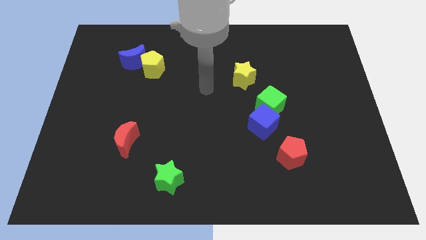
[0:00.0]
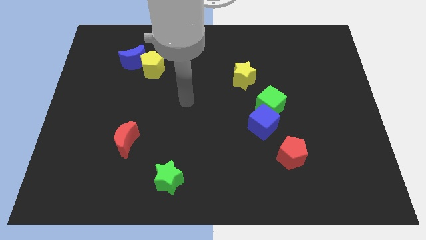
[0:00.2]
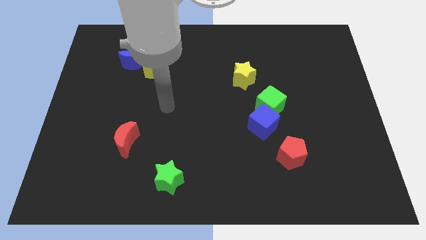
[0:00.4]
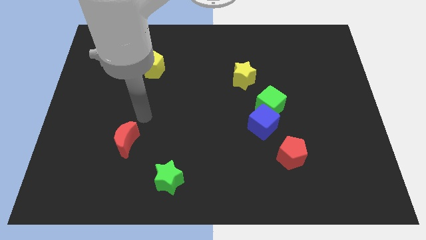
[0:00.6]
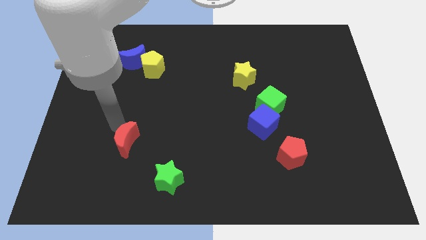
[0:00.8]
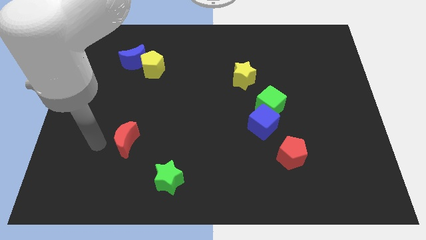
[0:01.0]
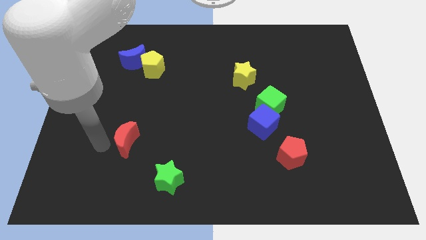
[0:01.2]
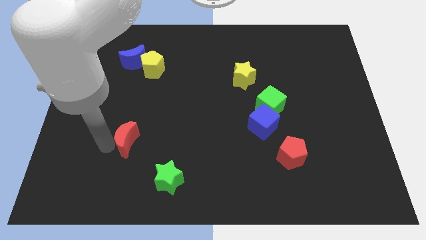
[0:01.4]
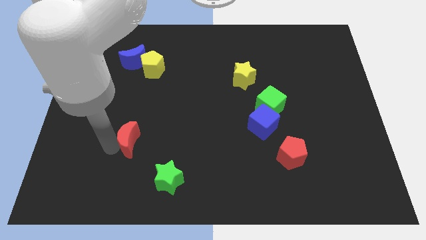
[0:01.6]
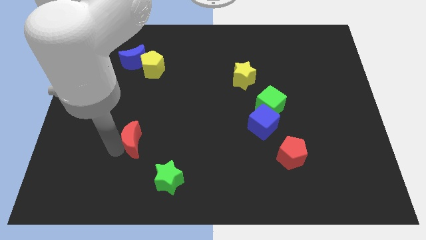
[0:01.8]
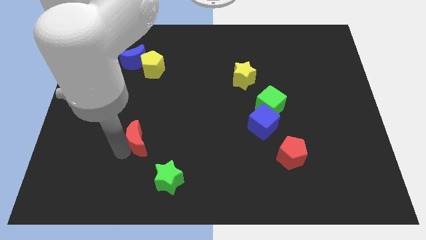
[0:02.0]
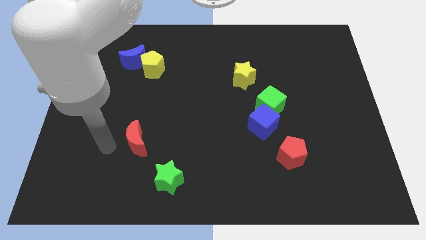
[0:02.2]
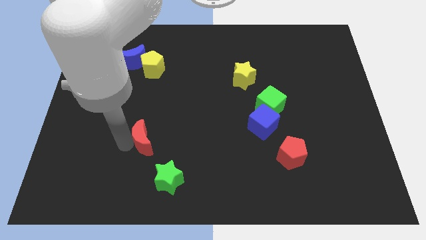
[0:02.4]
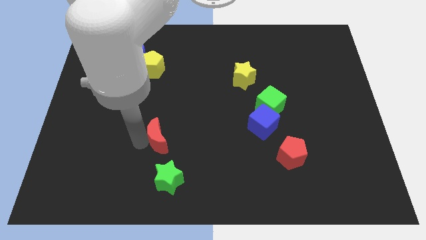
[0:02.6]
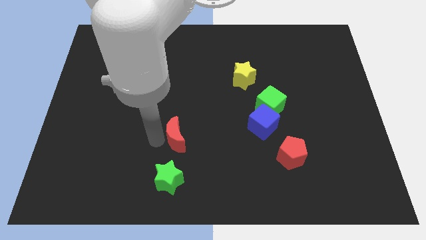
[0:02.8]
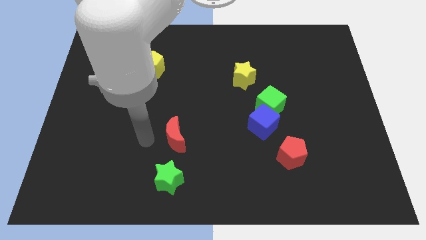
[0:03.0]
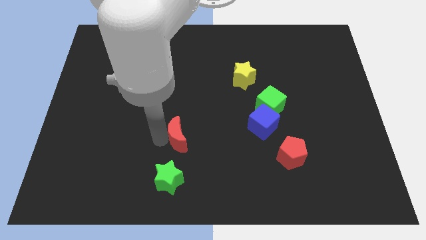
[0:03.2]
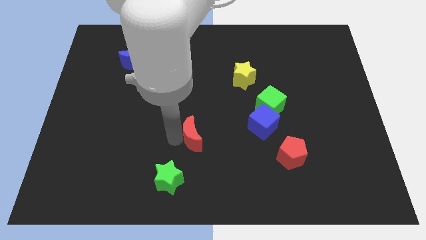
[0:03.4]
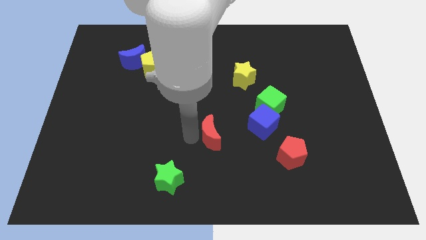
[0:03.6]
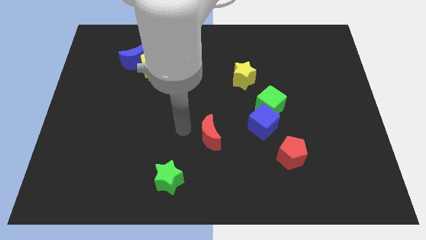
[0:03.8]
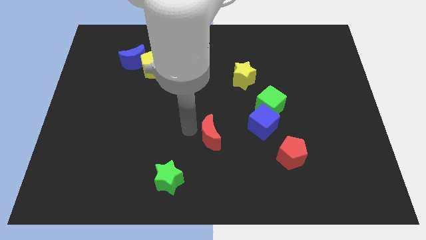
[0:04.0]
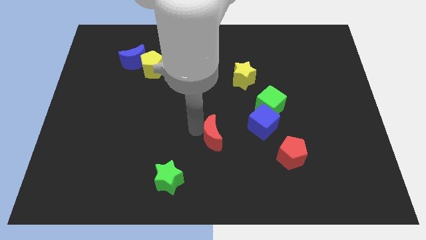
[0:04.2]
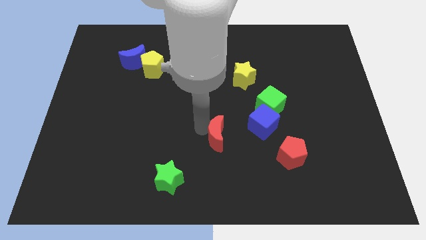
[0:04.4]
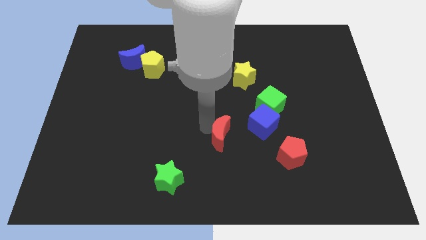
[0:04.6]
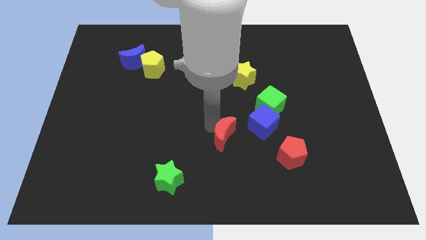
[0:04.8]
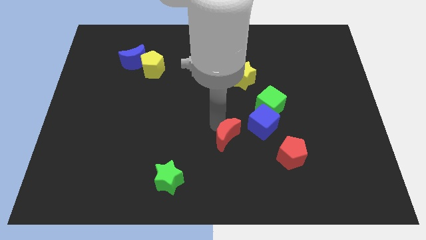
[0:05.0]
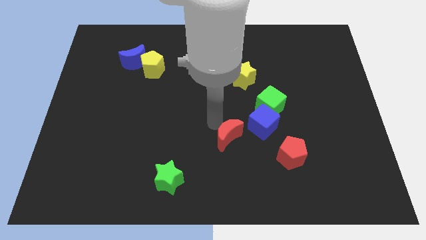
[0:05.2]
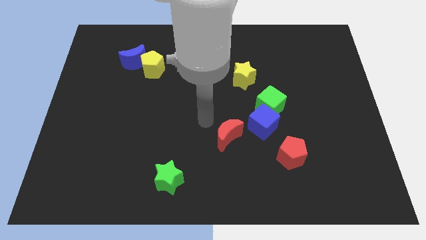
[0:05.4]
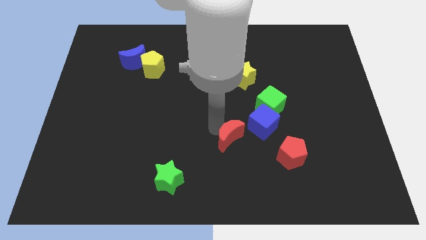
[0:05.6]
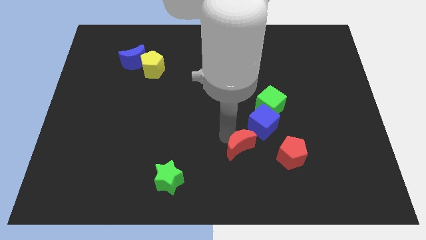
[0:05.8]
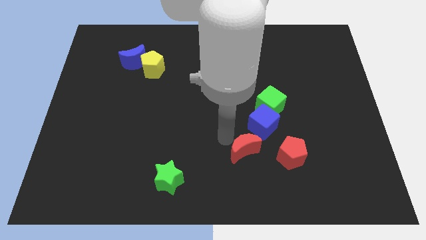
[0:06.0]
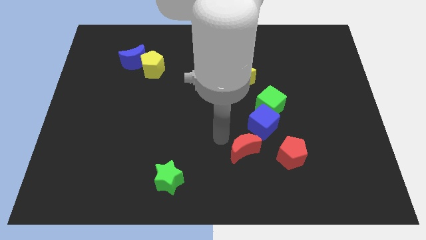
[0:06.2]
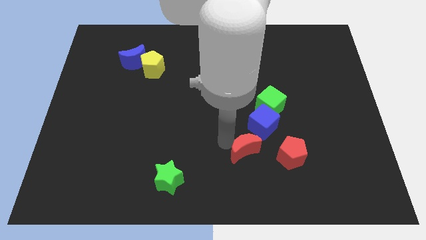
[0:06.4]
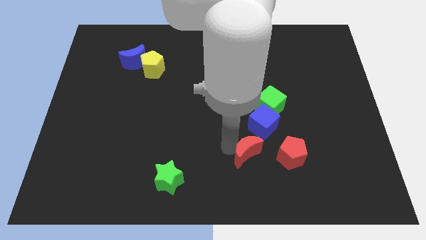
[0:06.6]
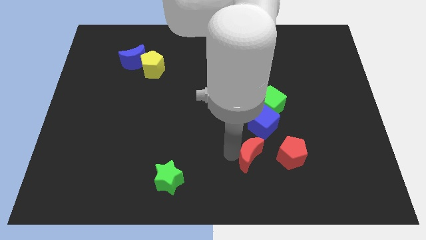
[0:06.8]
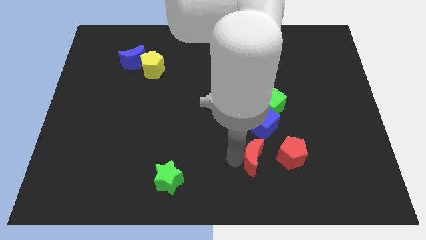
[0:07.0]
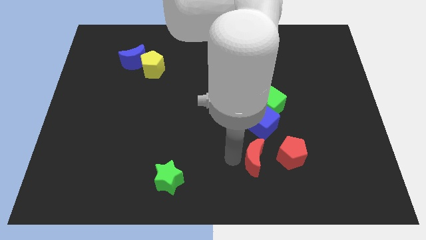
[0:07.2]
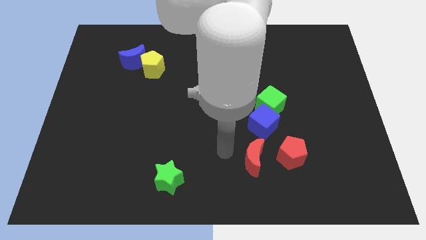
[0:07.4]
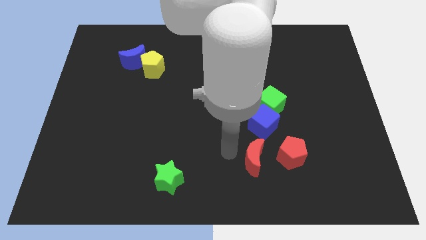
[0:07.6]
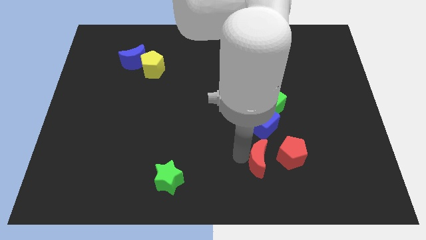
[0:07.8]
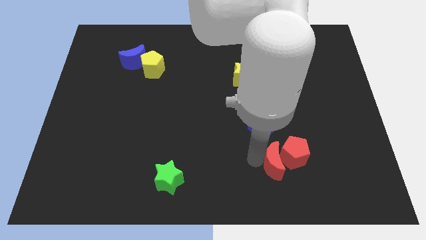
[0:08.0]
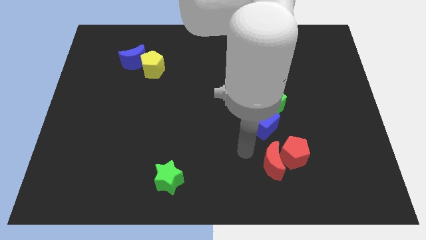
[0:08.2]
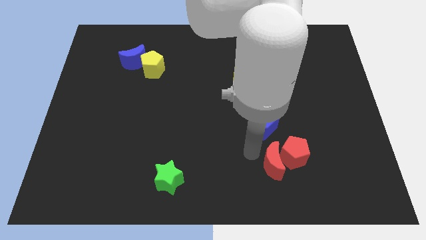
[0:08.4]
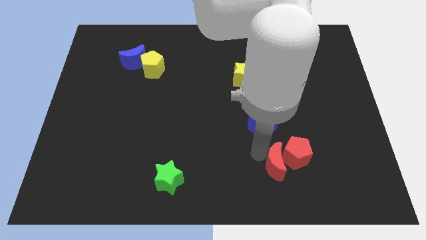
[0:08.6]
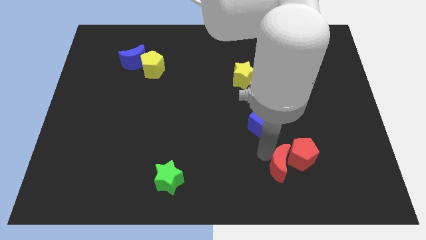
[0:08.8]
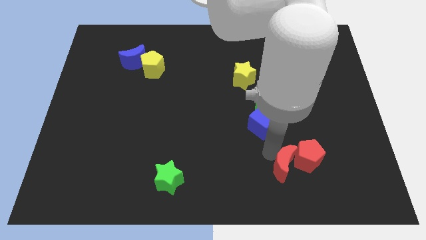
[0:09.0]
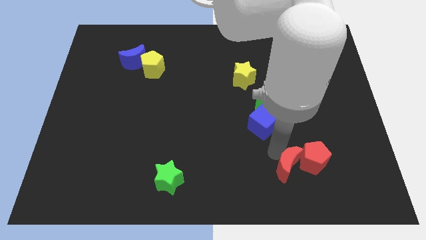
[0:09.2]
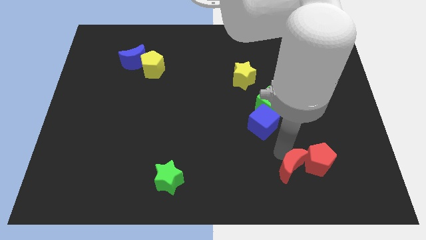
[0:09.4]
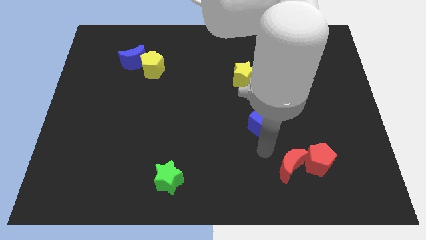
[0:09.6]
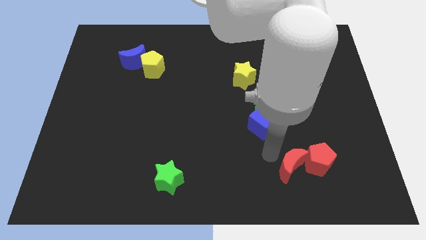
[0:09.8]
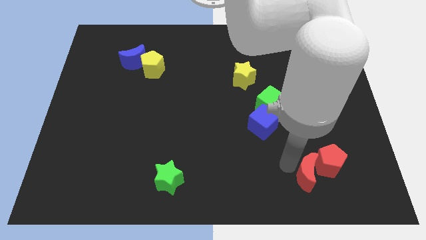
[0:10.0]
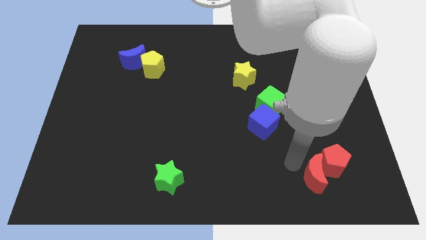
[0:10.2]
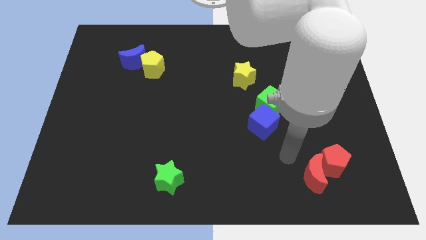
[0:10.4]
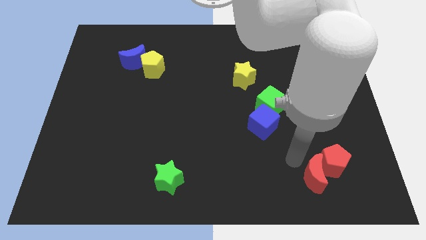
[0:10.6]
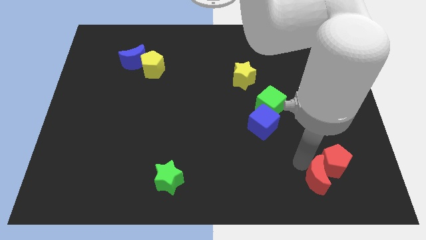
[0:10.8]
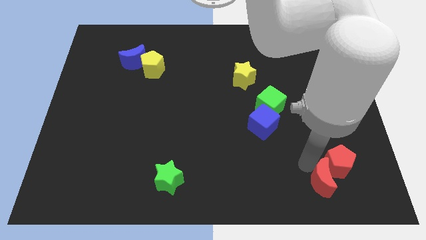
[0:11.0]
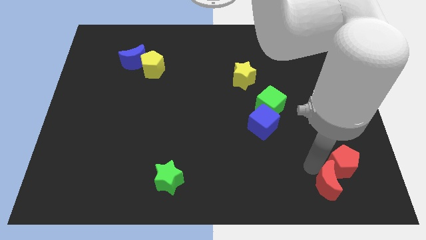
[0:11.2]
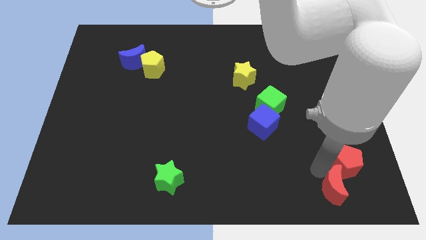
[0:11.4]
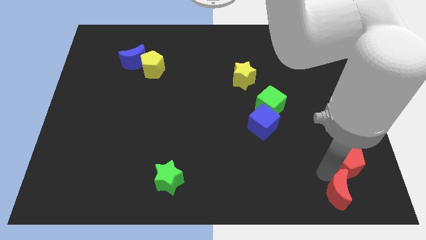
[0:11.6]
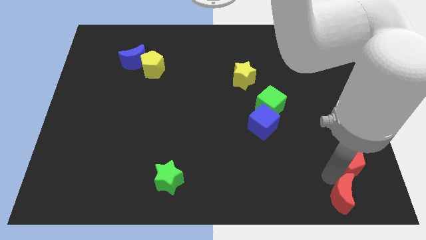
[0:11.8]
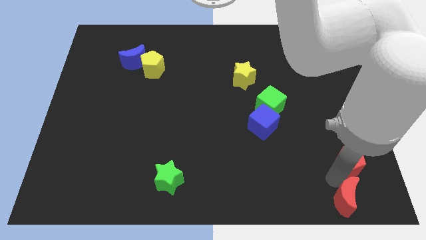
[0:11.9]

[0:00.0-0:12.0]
move the red moon to the lower right corner

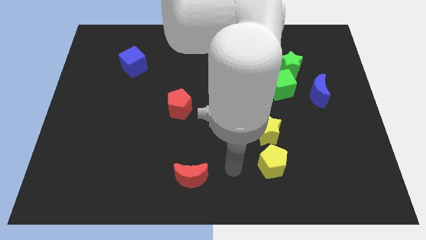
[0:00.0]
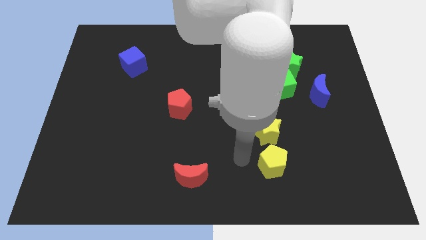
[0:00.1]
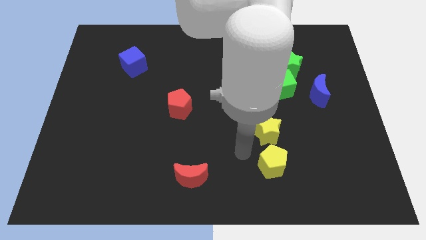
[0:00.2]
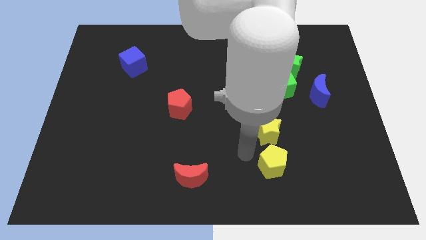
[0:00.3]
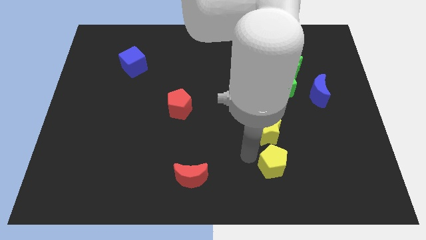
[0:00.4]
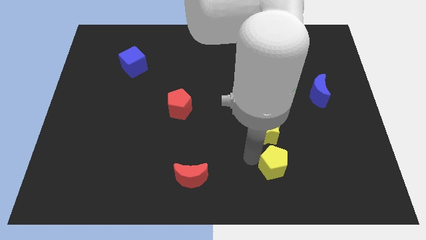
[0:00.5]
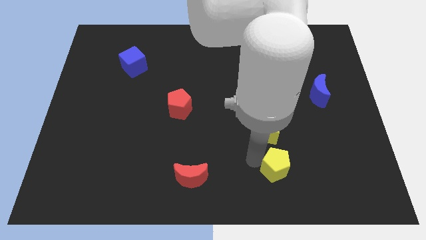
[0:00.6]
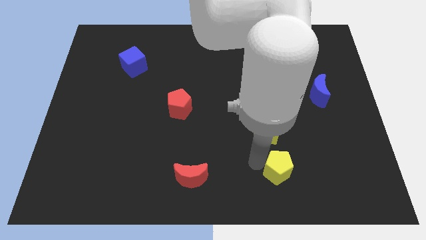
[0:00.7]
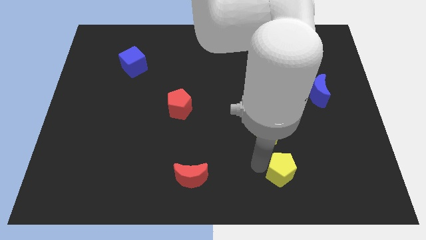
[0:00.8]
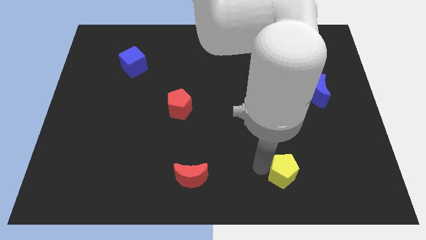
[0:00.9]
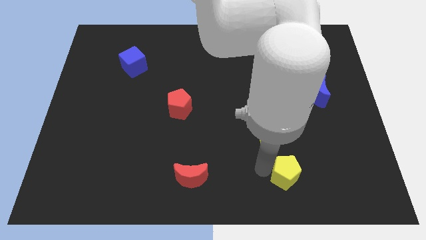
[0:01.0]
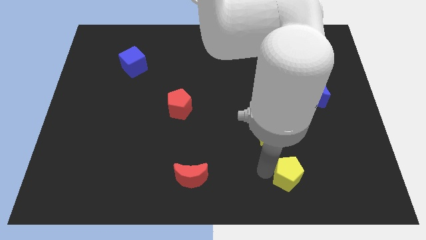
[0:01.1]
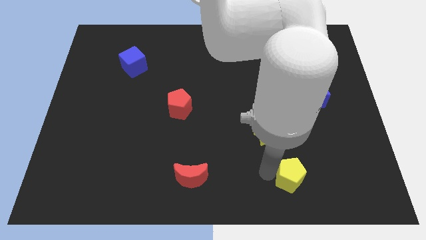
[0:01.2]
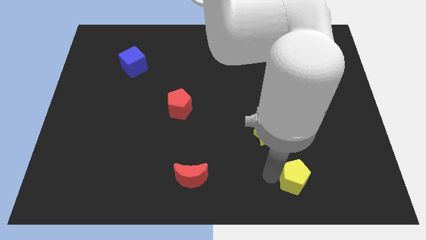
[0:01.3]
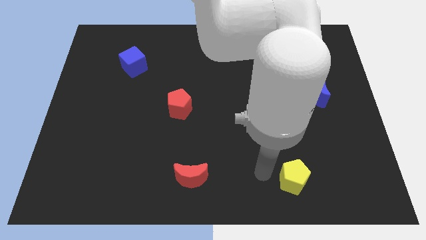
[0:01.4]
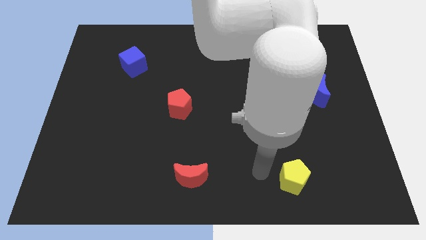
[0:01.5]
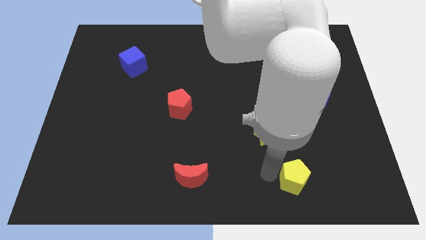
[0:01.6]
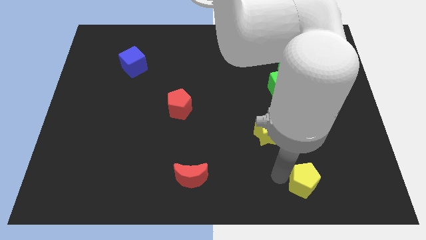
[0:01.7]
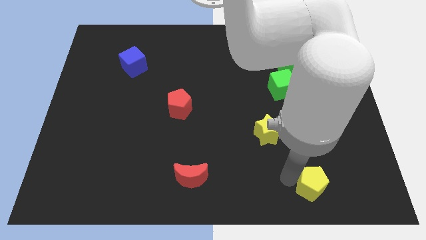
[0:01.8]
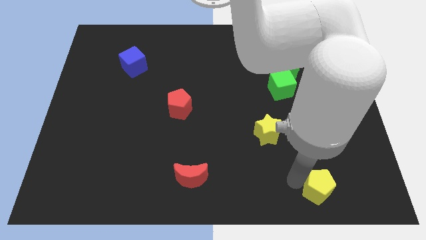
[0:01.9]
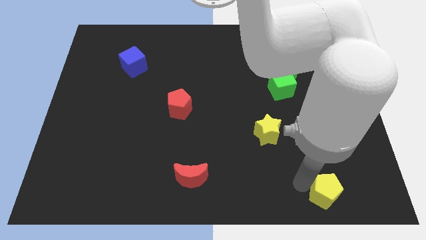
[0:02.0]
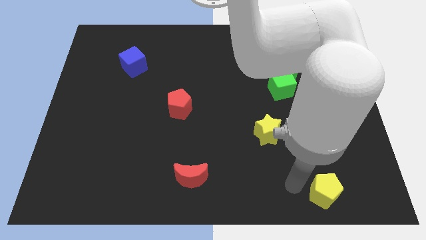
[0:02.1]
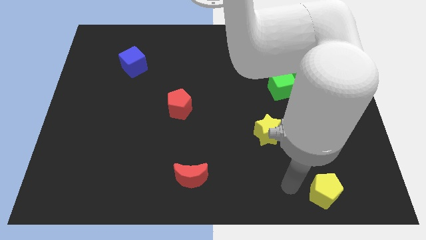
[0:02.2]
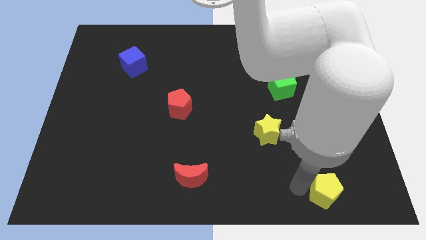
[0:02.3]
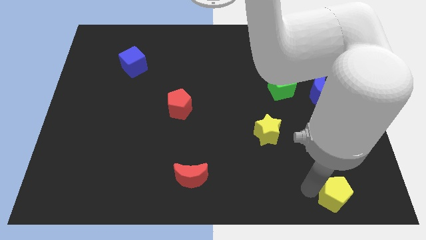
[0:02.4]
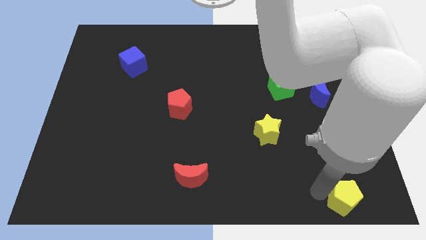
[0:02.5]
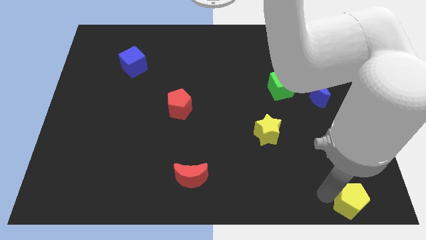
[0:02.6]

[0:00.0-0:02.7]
put the yellow pentagon to the bottom right
